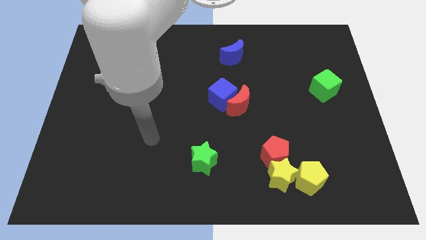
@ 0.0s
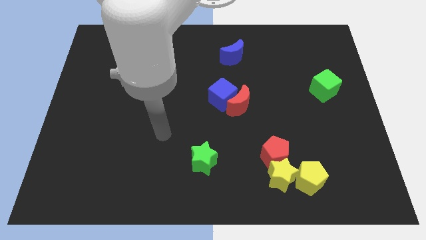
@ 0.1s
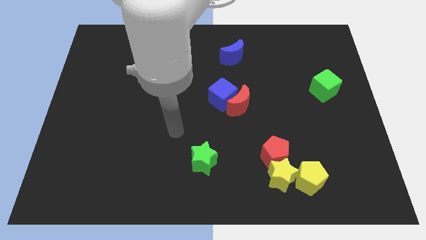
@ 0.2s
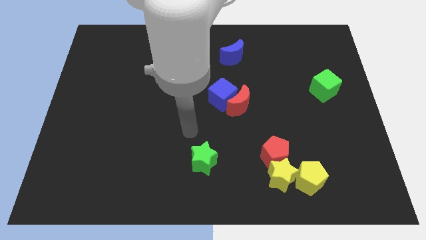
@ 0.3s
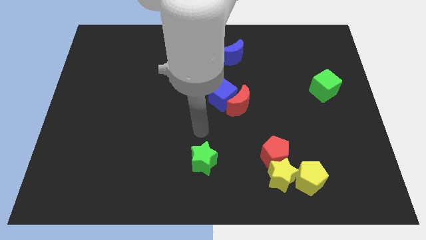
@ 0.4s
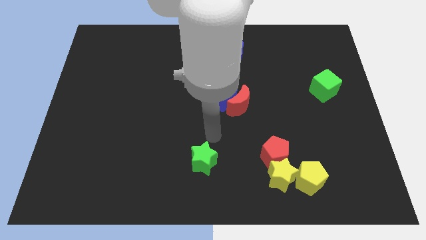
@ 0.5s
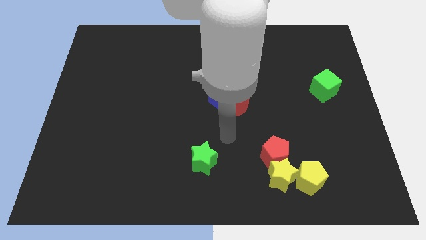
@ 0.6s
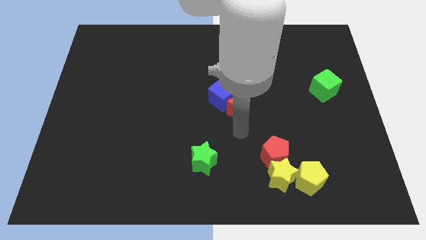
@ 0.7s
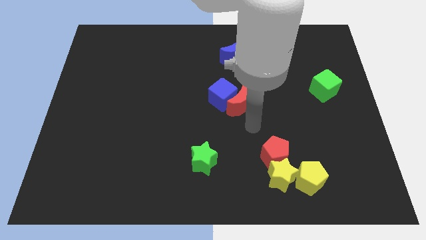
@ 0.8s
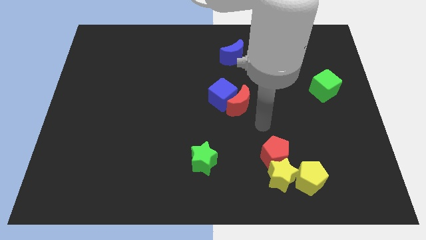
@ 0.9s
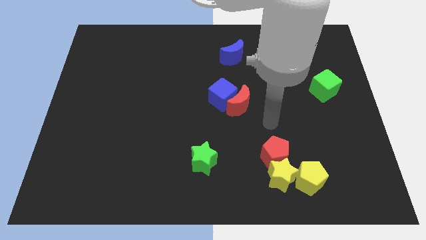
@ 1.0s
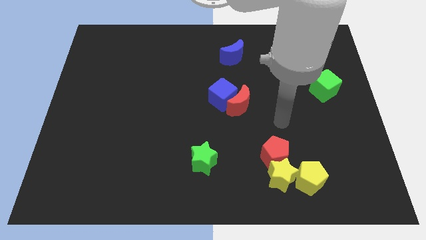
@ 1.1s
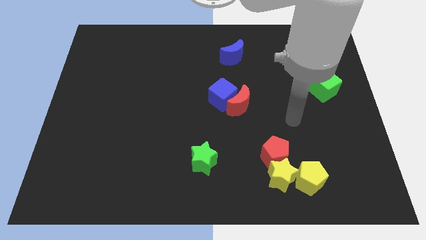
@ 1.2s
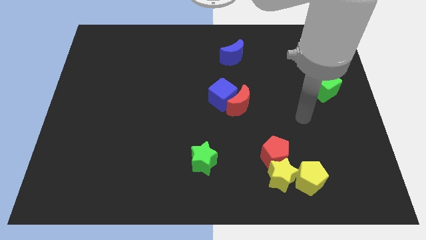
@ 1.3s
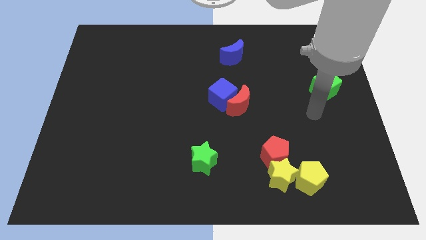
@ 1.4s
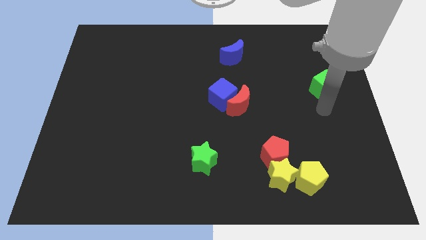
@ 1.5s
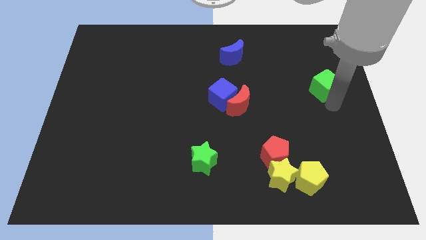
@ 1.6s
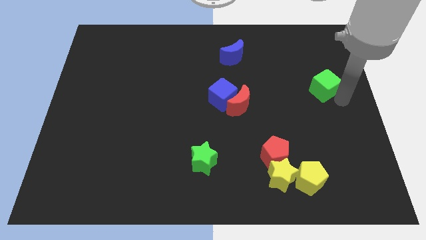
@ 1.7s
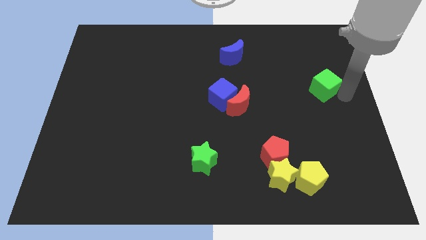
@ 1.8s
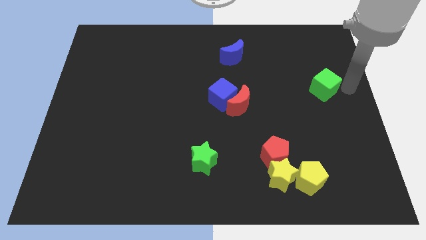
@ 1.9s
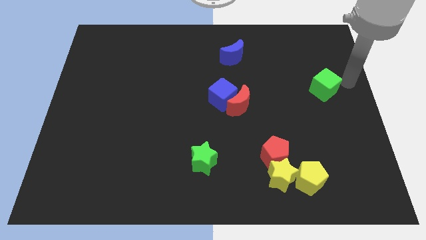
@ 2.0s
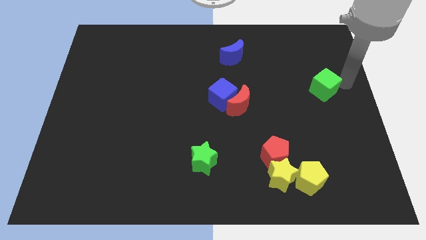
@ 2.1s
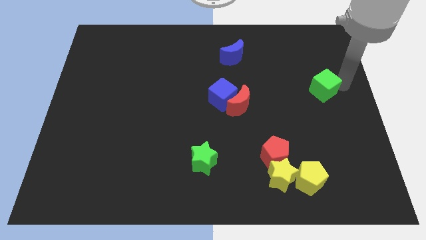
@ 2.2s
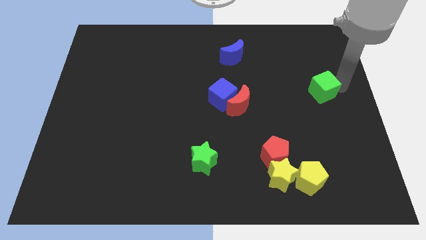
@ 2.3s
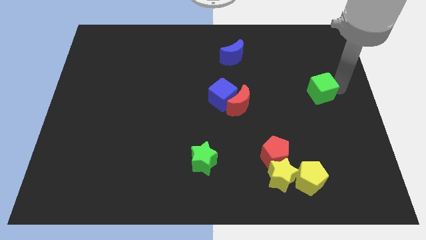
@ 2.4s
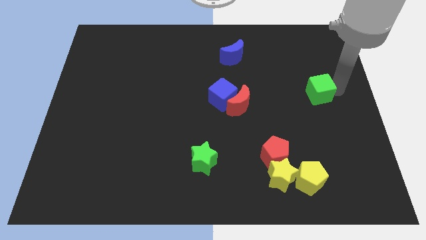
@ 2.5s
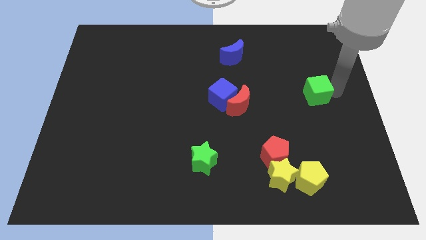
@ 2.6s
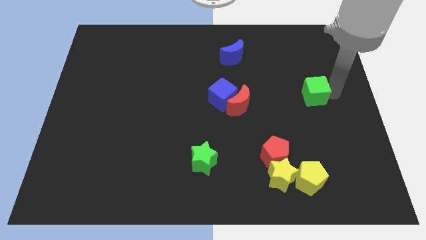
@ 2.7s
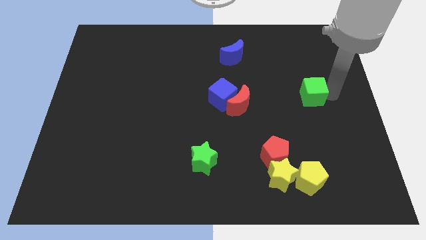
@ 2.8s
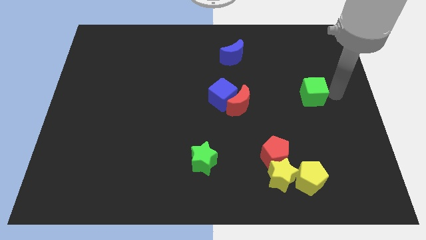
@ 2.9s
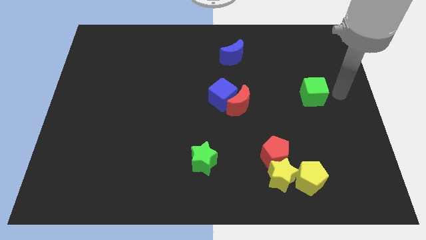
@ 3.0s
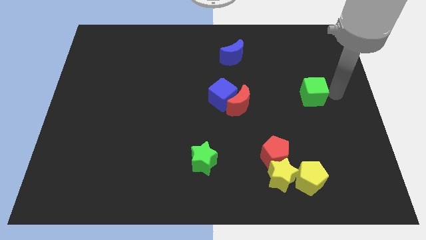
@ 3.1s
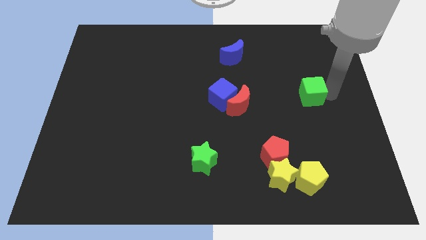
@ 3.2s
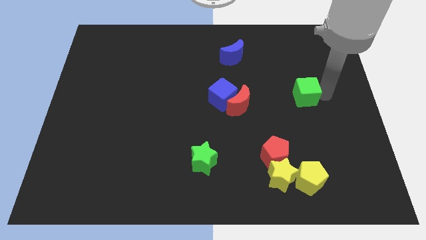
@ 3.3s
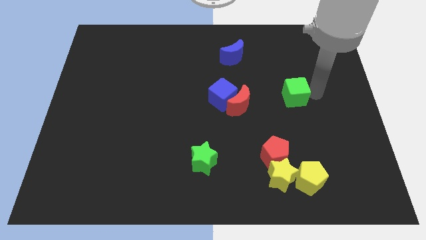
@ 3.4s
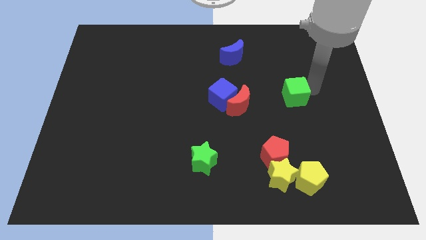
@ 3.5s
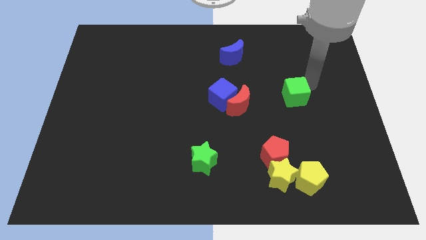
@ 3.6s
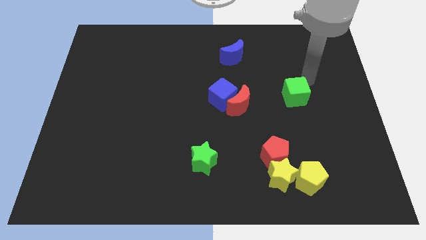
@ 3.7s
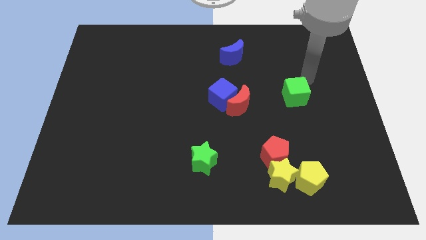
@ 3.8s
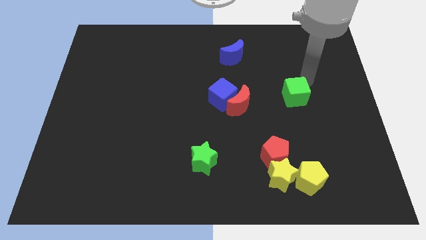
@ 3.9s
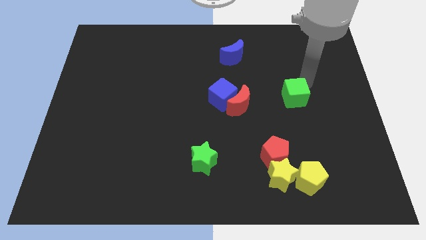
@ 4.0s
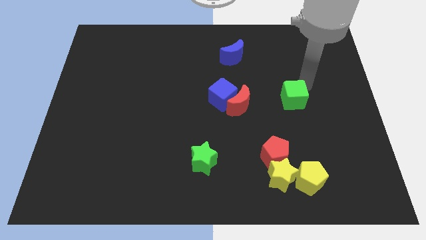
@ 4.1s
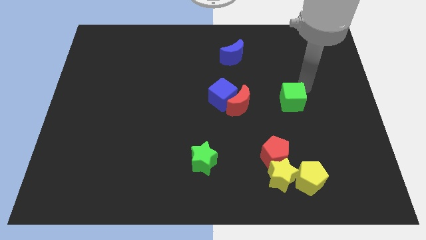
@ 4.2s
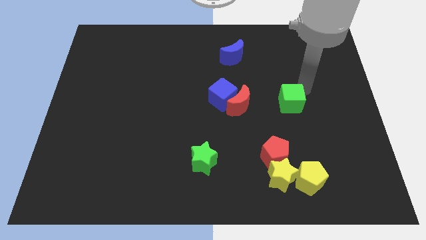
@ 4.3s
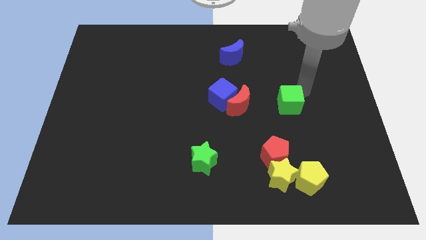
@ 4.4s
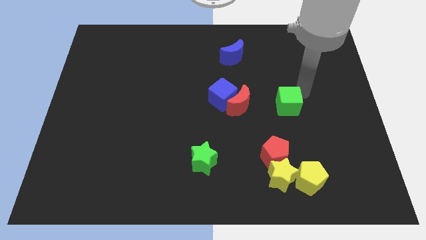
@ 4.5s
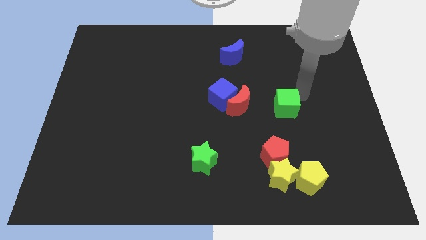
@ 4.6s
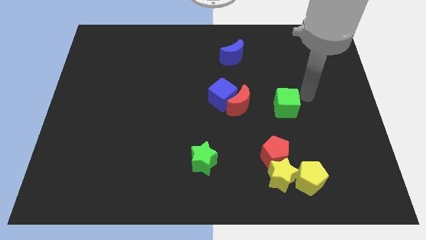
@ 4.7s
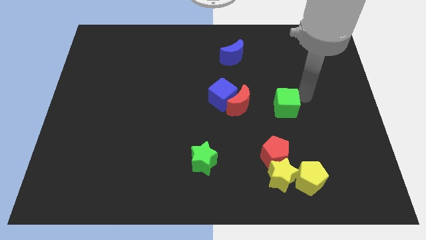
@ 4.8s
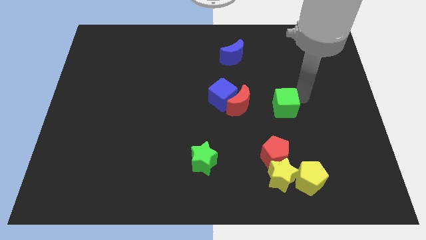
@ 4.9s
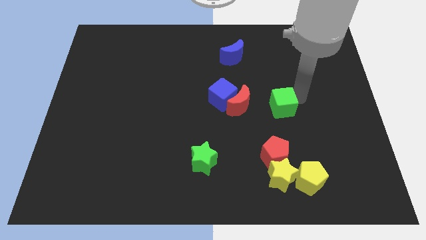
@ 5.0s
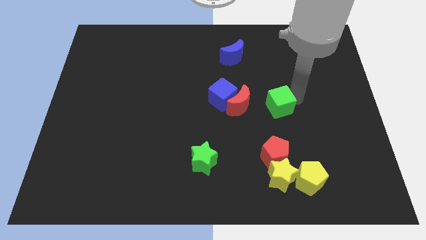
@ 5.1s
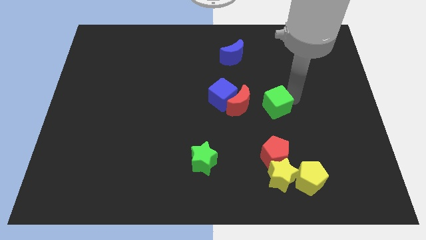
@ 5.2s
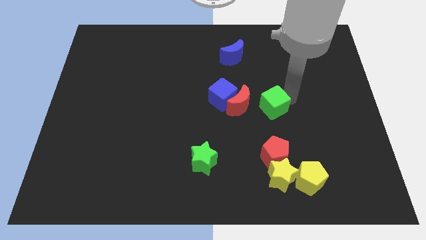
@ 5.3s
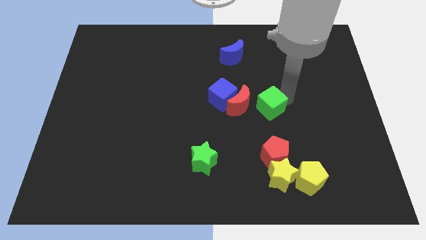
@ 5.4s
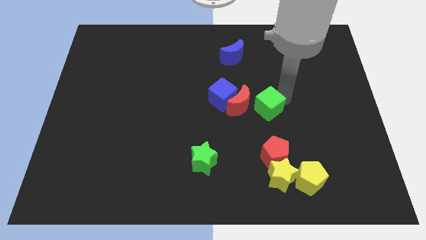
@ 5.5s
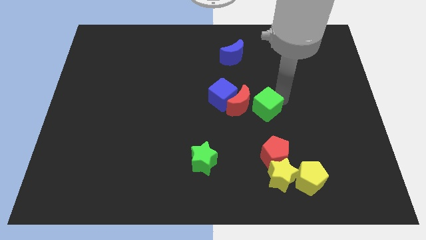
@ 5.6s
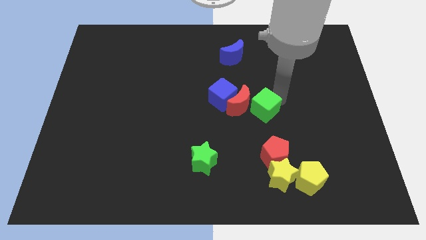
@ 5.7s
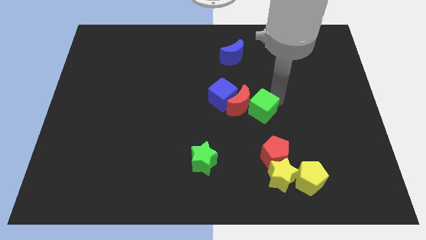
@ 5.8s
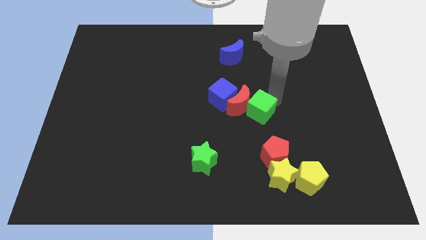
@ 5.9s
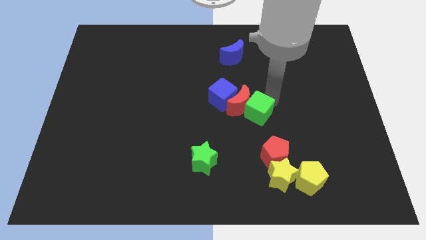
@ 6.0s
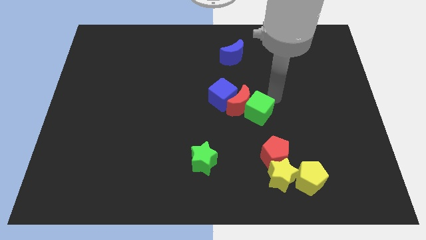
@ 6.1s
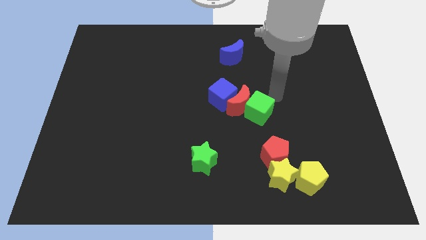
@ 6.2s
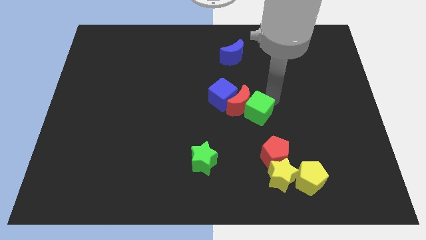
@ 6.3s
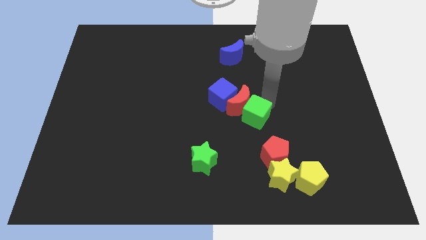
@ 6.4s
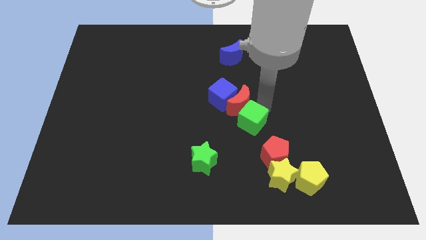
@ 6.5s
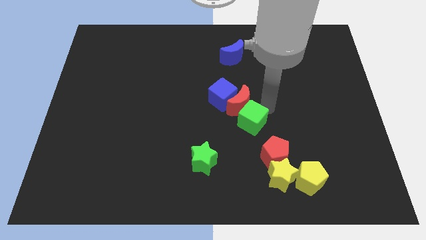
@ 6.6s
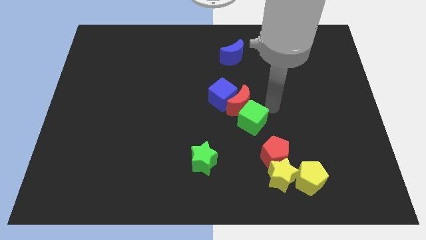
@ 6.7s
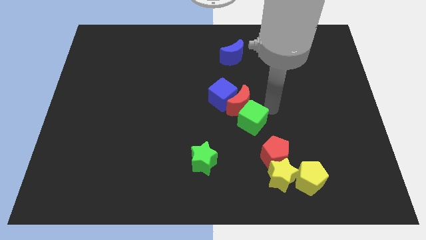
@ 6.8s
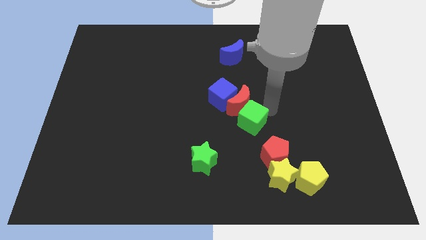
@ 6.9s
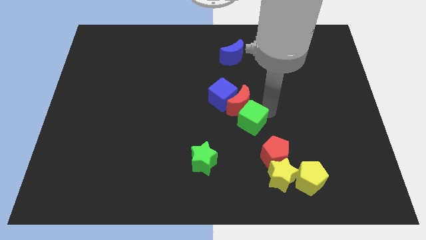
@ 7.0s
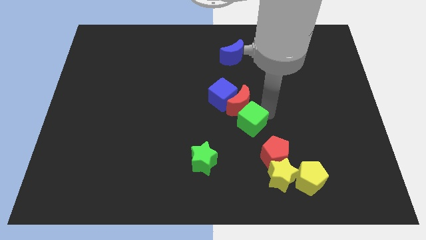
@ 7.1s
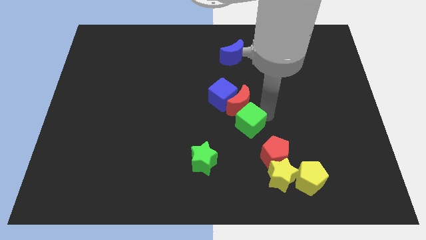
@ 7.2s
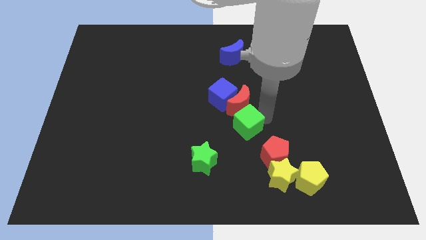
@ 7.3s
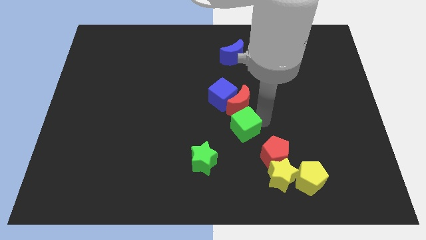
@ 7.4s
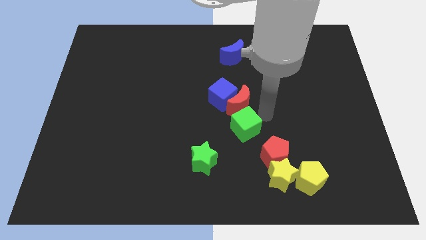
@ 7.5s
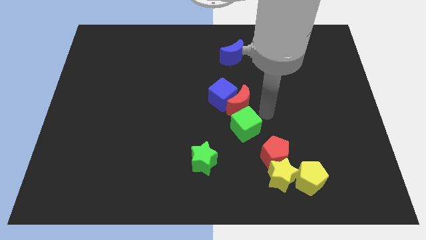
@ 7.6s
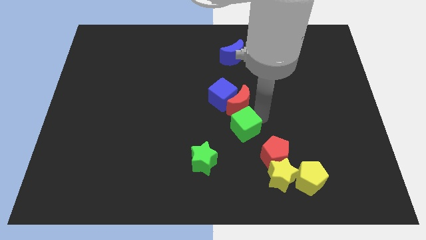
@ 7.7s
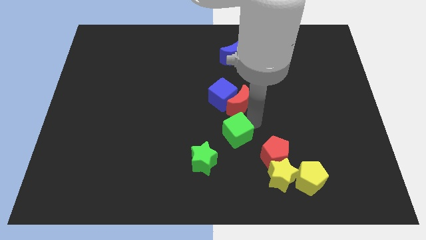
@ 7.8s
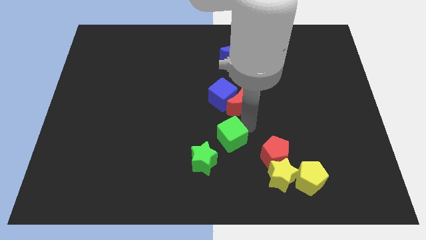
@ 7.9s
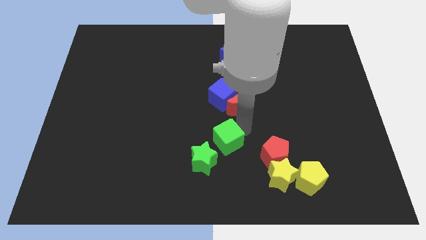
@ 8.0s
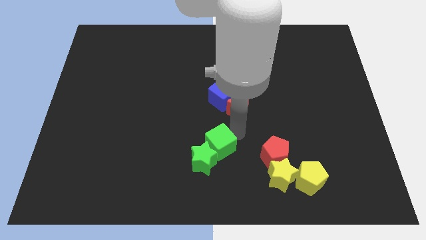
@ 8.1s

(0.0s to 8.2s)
put the green cube to the green star
